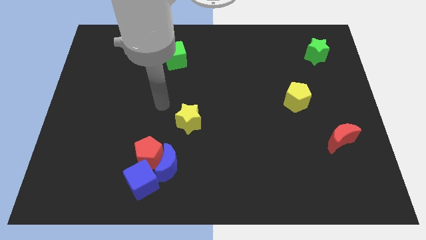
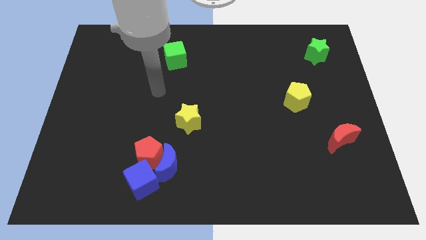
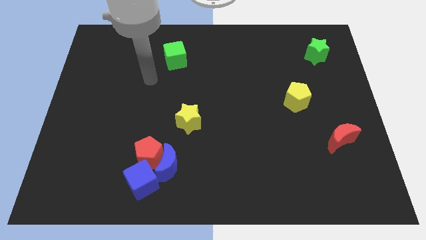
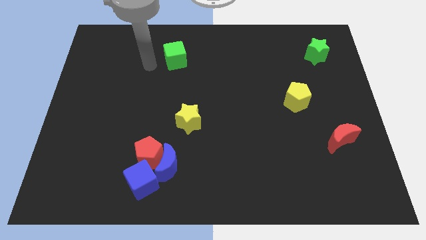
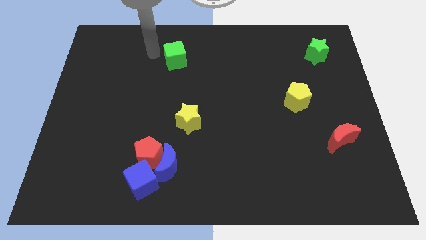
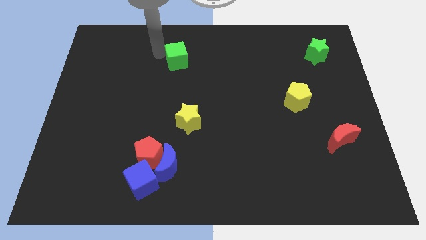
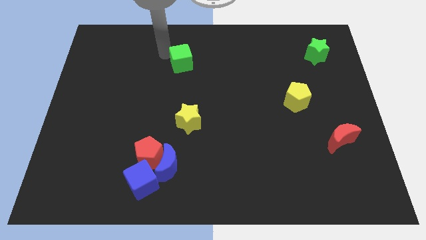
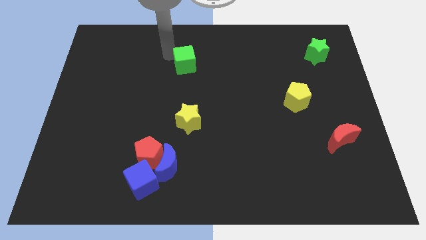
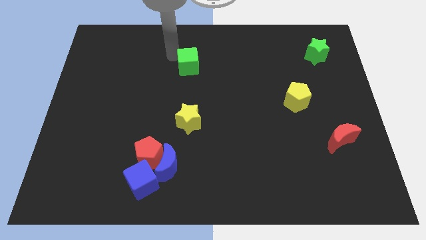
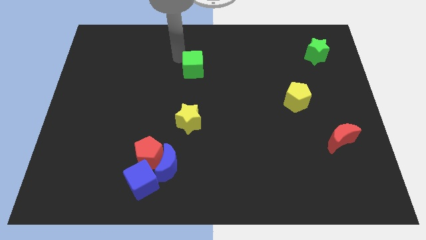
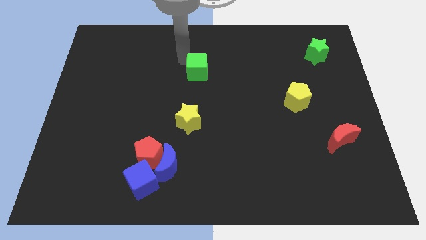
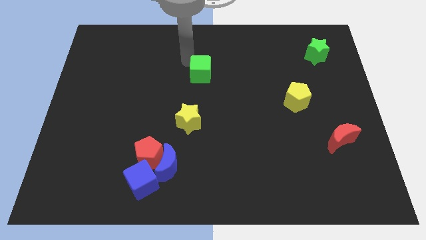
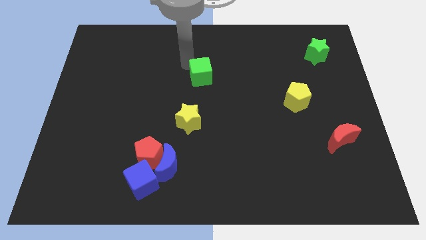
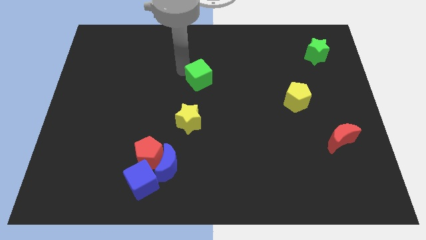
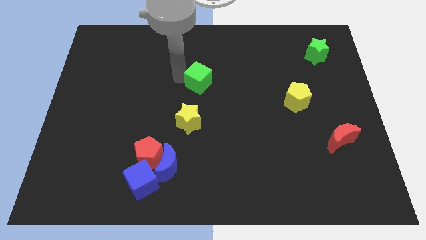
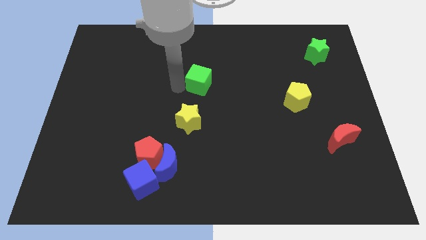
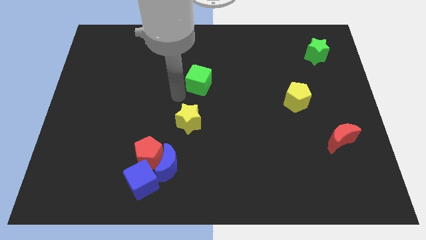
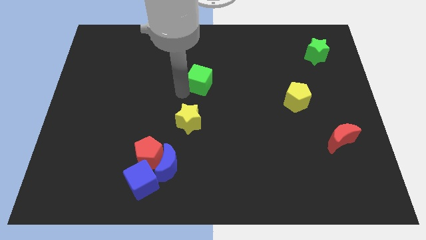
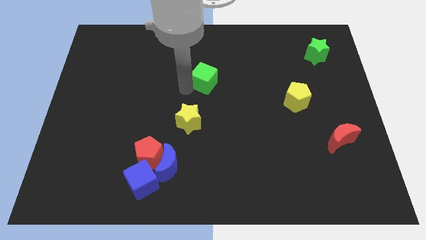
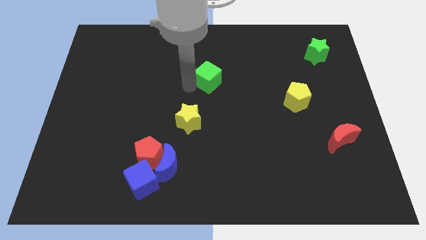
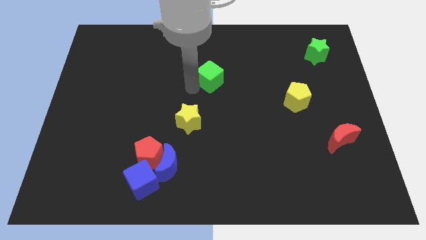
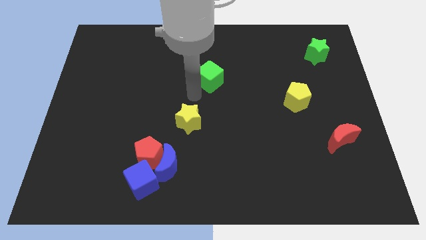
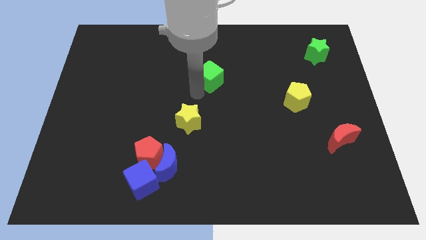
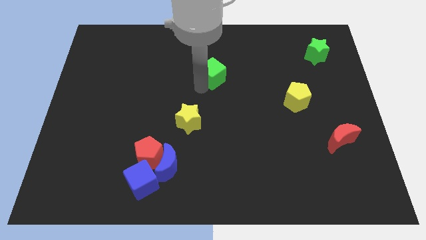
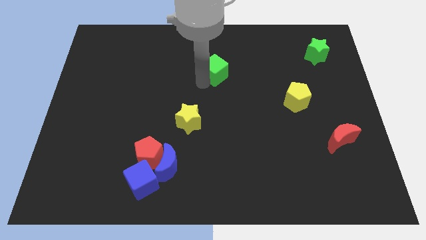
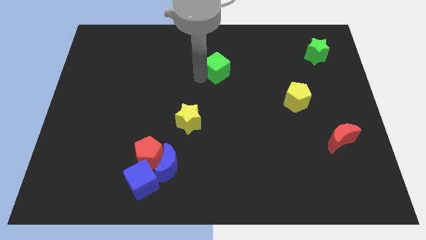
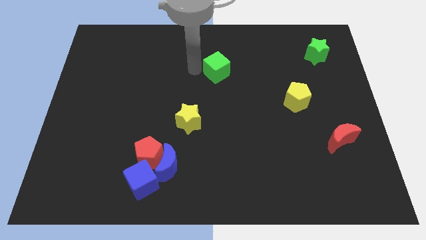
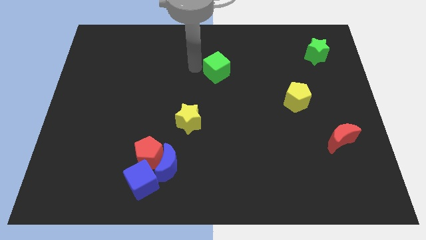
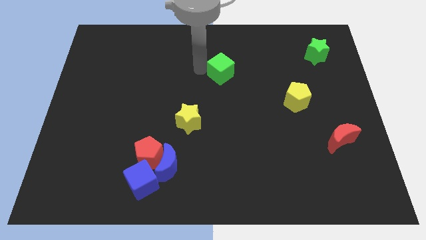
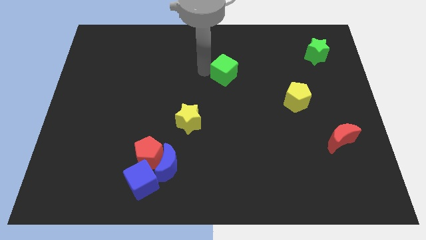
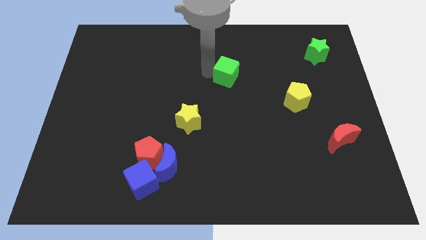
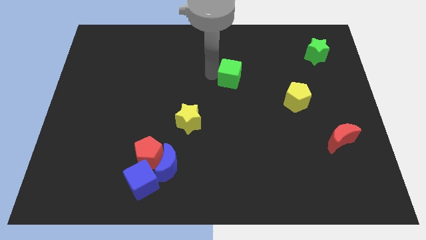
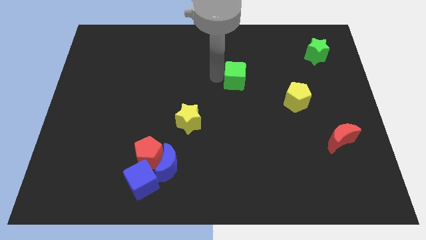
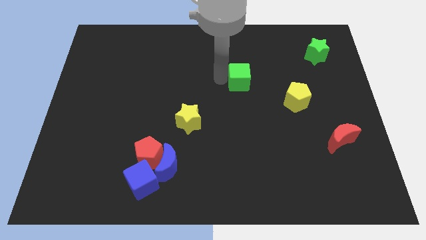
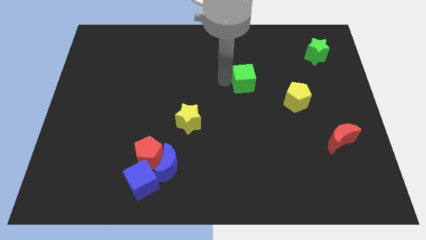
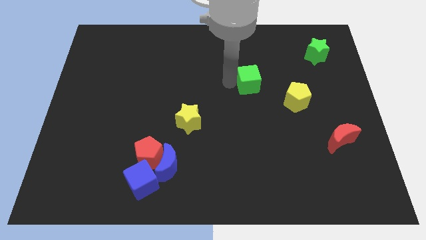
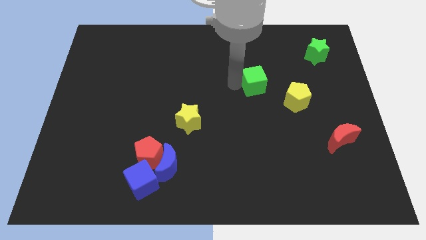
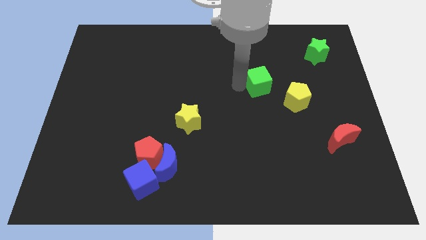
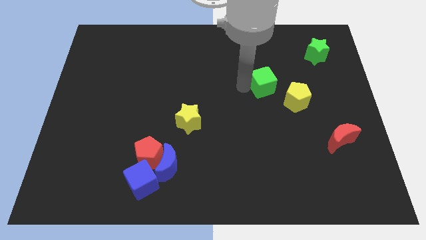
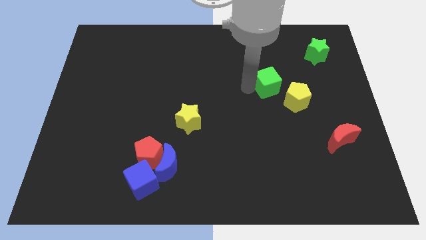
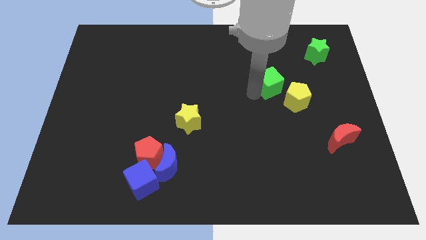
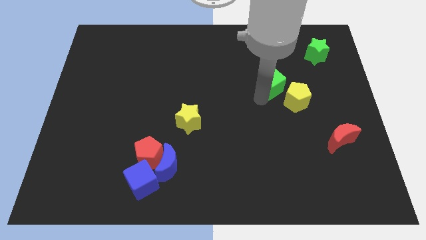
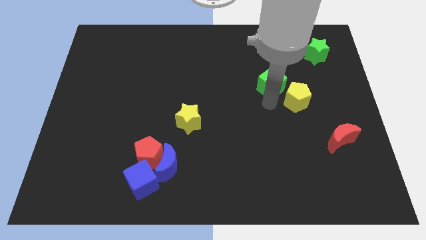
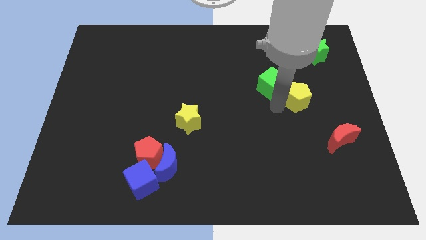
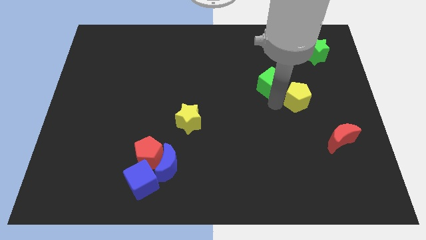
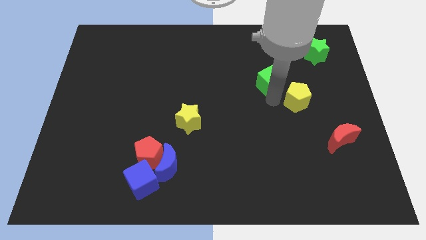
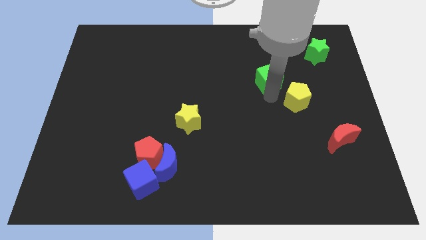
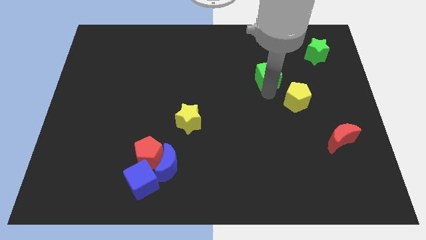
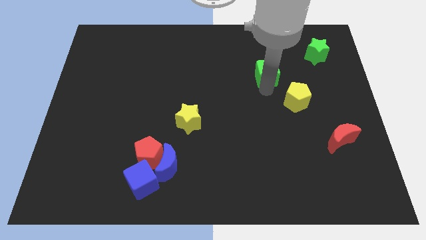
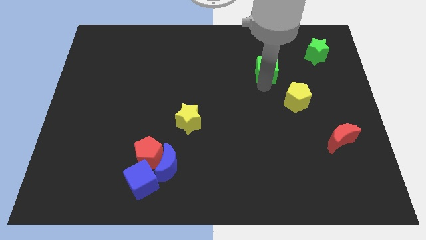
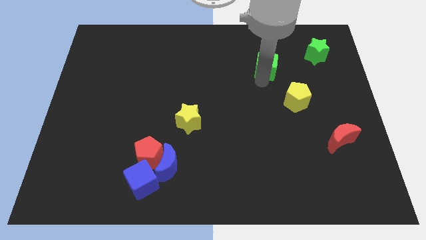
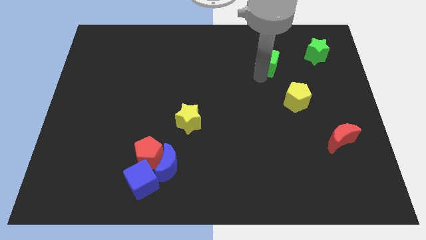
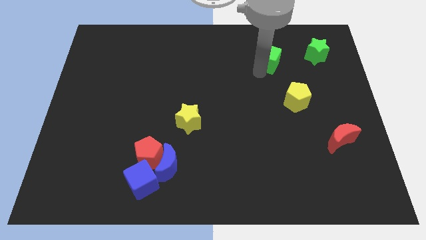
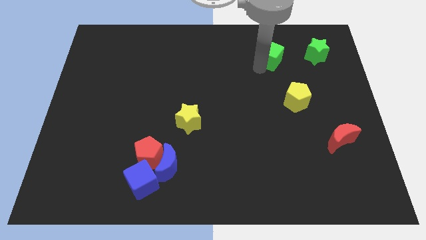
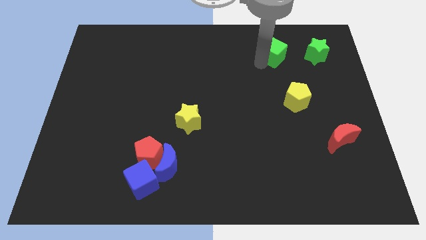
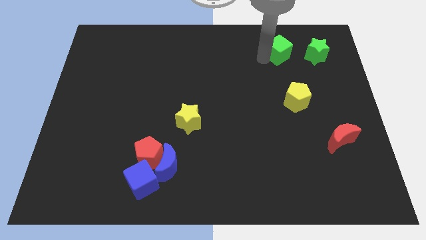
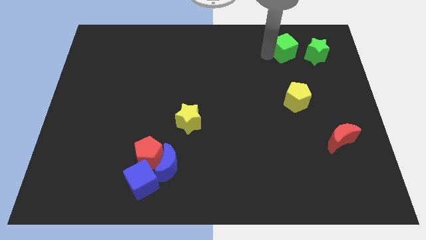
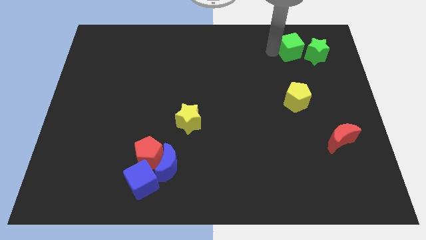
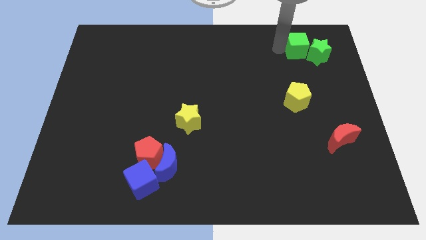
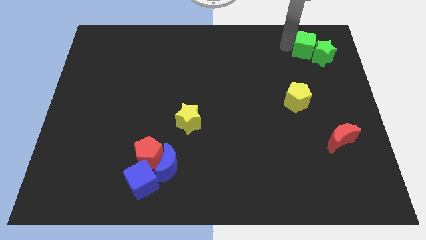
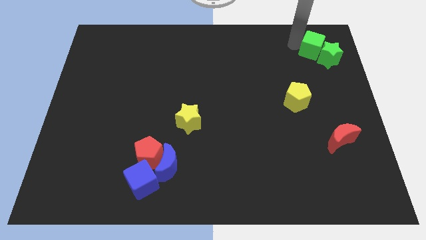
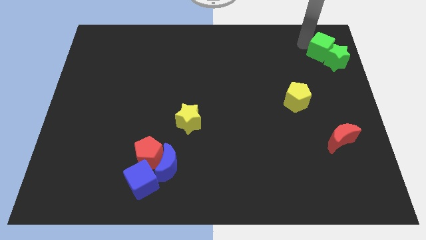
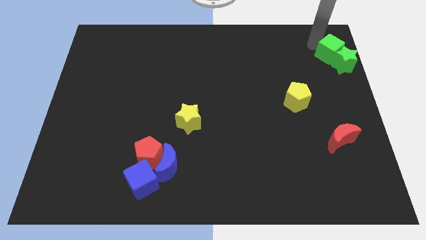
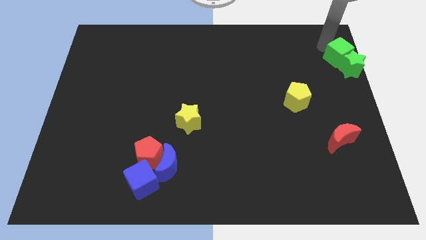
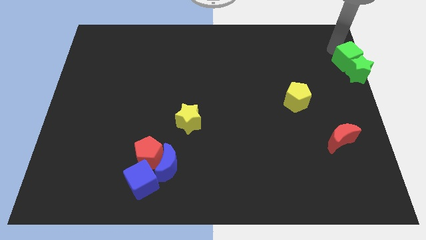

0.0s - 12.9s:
move the green cube to the center right
